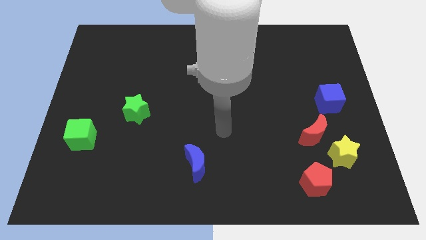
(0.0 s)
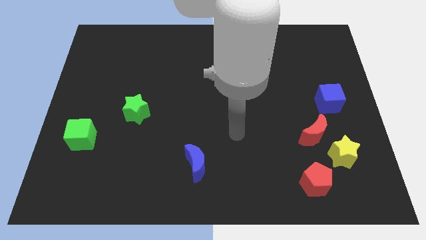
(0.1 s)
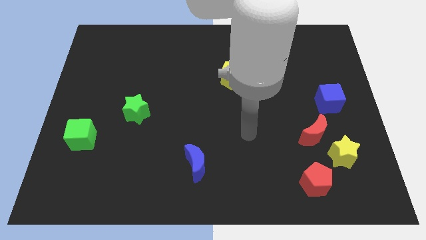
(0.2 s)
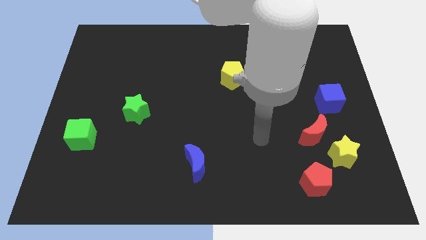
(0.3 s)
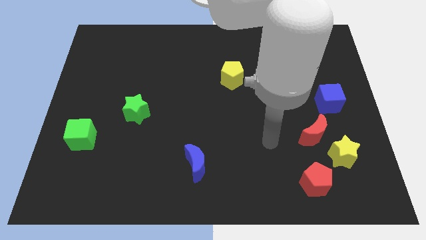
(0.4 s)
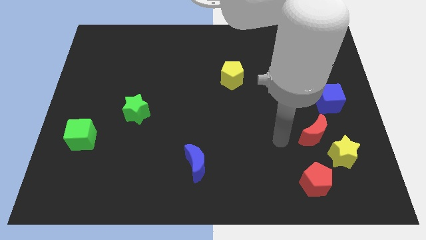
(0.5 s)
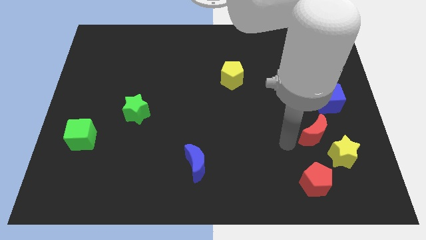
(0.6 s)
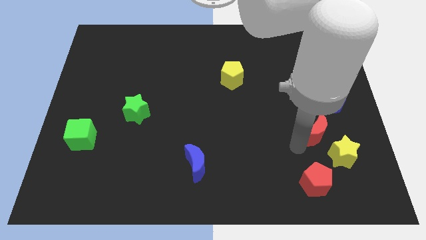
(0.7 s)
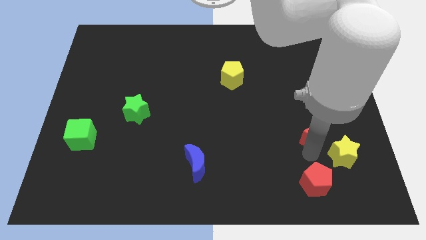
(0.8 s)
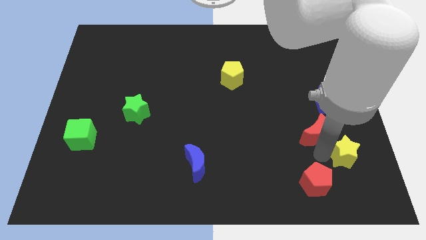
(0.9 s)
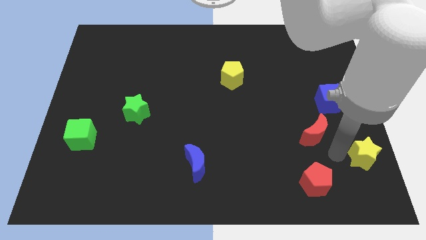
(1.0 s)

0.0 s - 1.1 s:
separate the red moon from the yellow star

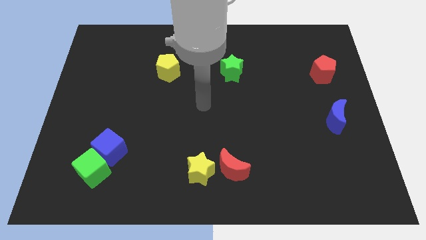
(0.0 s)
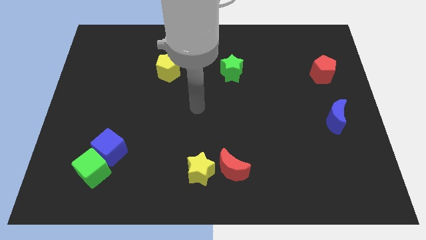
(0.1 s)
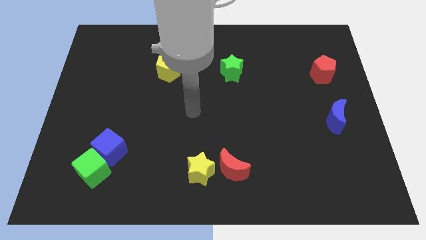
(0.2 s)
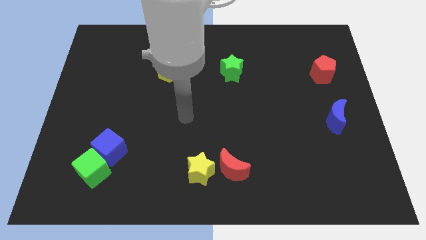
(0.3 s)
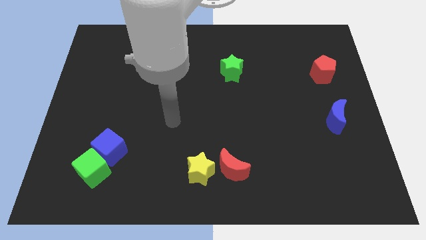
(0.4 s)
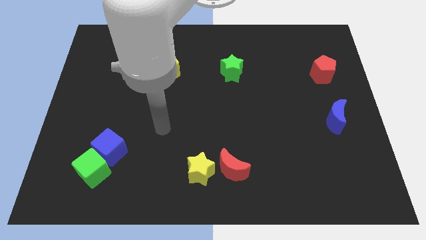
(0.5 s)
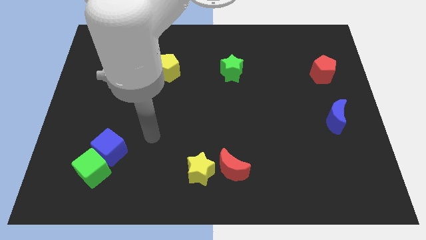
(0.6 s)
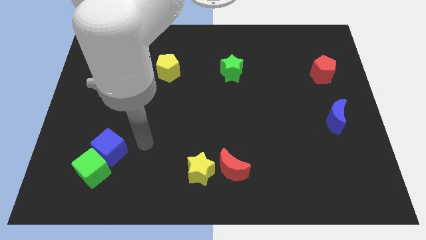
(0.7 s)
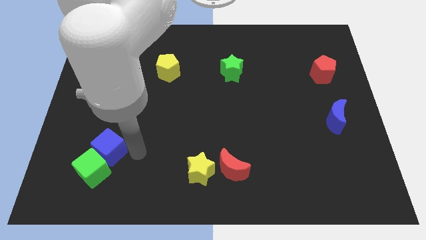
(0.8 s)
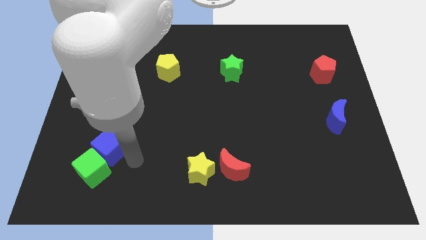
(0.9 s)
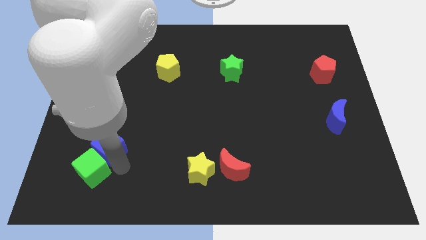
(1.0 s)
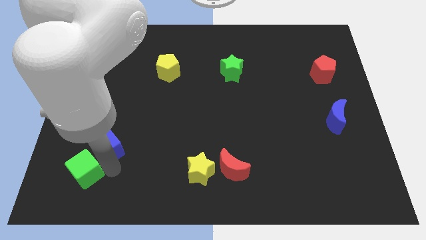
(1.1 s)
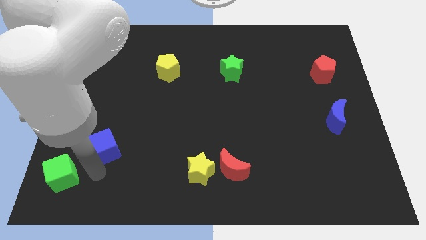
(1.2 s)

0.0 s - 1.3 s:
pull the blue cube apart from the green cube

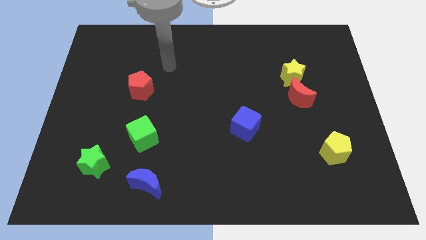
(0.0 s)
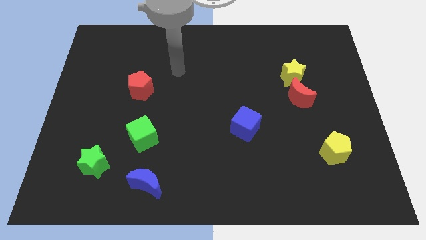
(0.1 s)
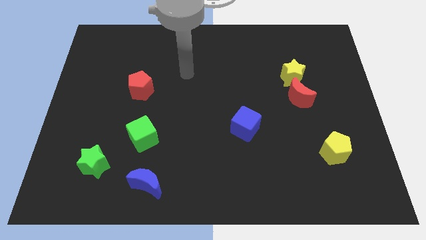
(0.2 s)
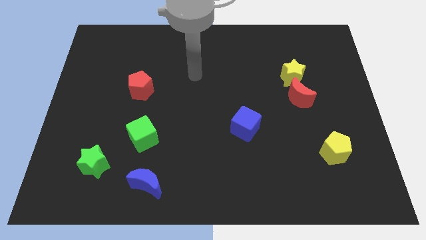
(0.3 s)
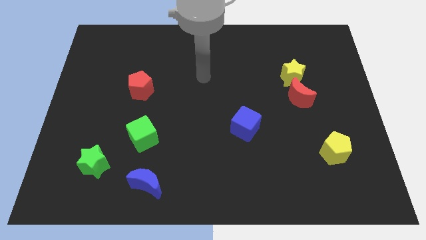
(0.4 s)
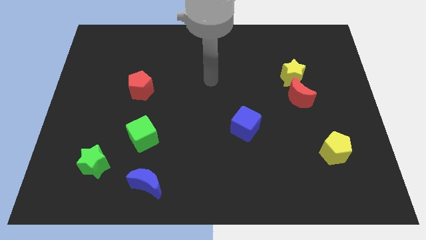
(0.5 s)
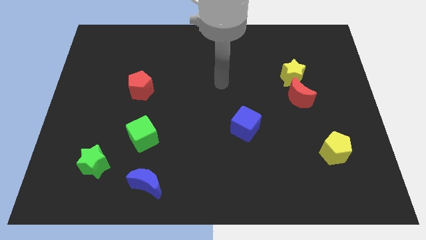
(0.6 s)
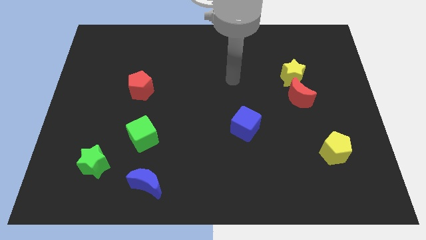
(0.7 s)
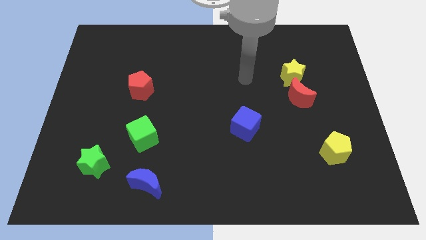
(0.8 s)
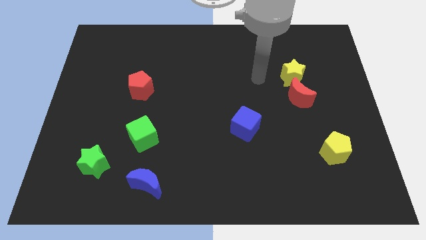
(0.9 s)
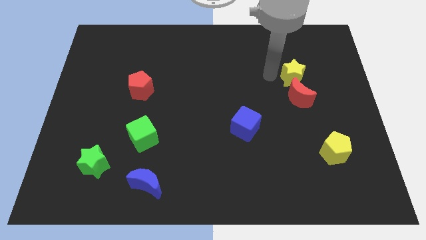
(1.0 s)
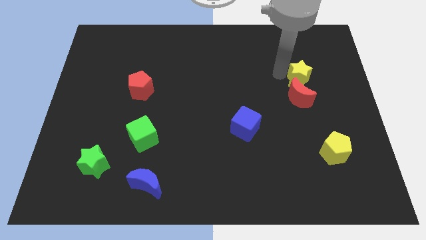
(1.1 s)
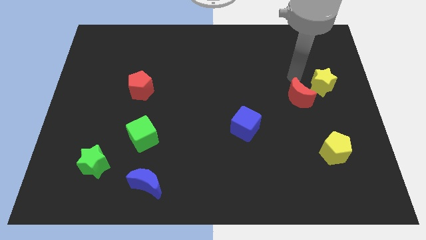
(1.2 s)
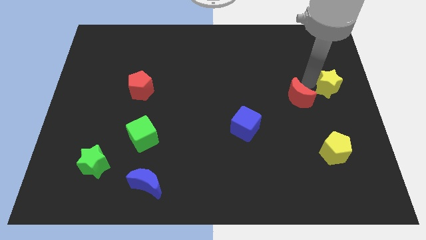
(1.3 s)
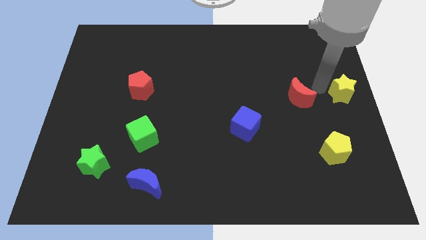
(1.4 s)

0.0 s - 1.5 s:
pull the red moon apart from the yellow star

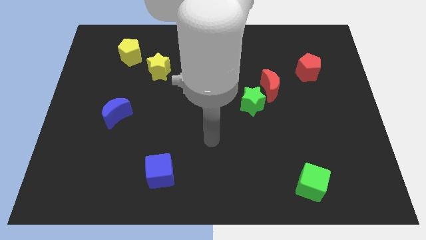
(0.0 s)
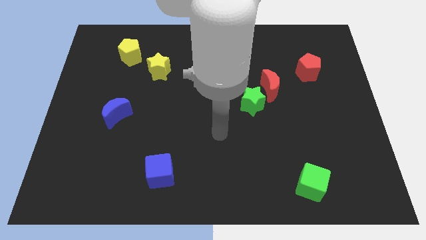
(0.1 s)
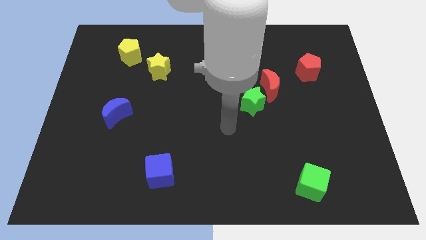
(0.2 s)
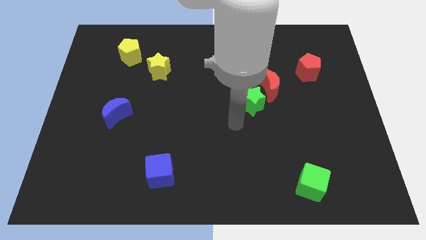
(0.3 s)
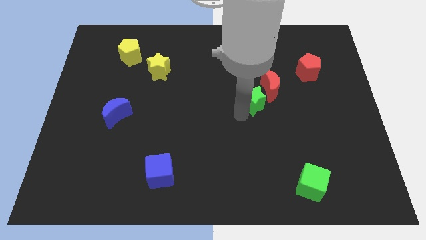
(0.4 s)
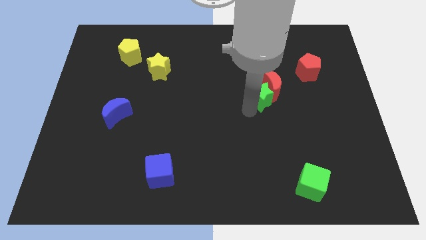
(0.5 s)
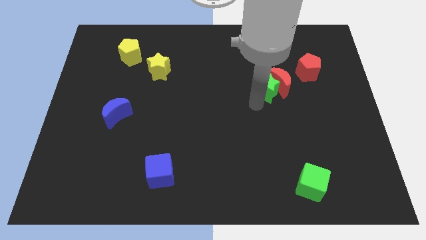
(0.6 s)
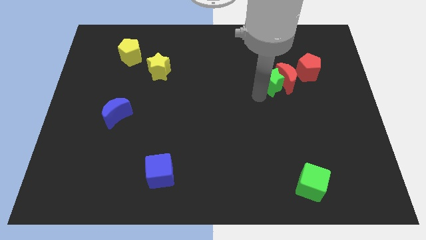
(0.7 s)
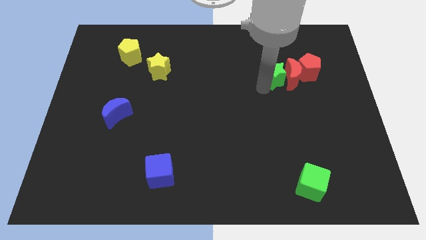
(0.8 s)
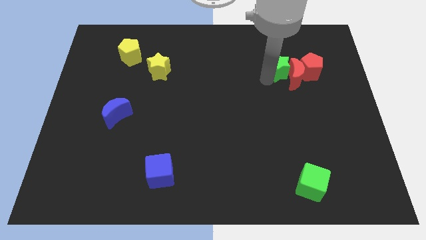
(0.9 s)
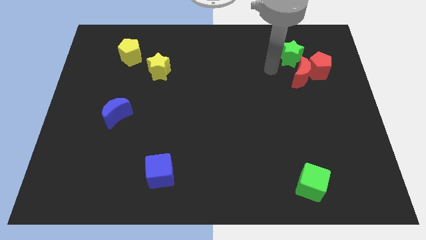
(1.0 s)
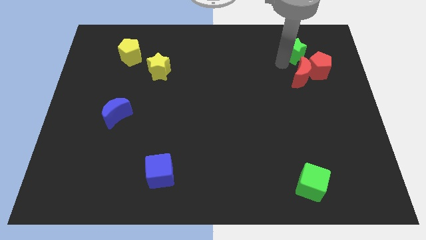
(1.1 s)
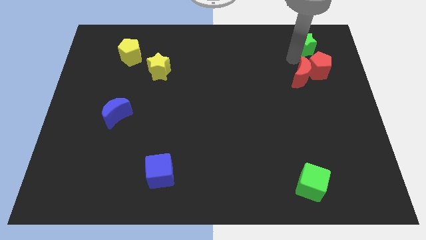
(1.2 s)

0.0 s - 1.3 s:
pull the red moon apart from the green star

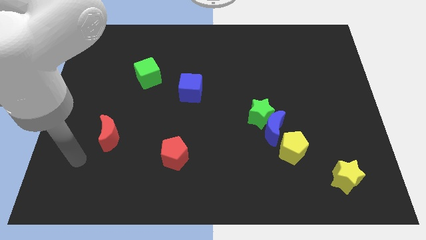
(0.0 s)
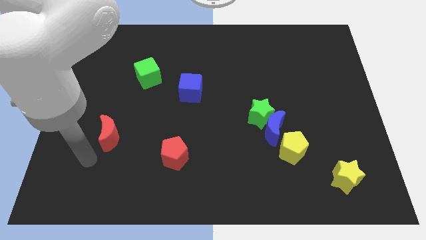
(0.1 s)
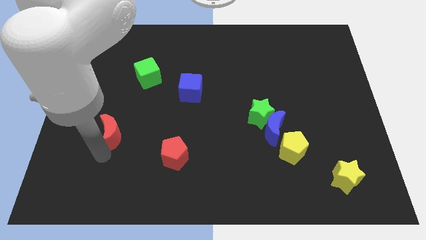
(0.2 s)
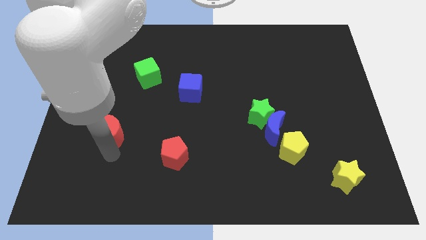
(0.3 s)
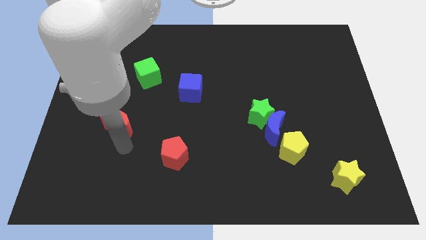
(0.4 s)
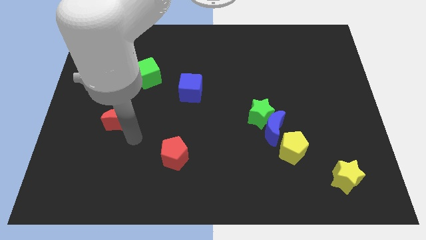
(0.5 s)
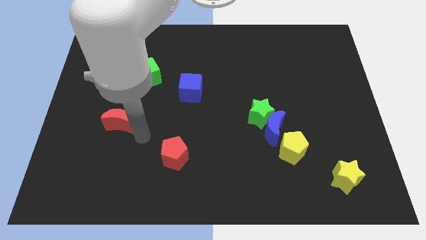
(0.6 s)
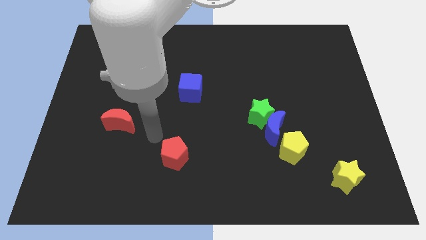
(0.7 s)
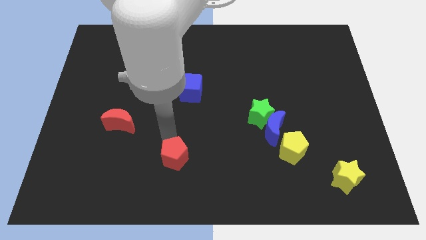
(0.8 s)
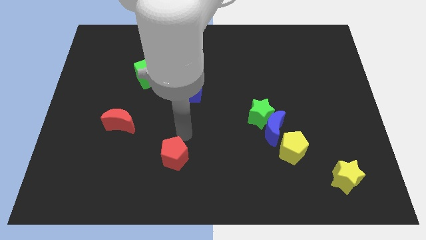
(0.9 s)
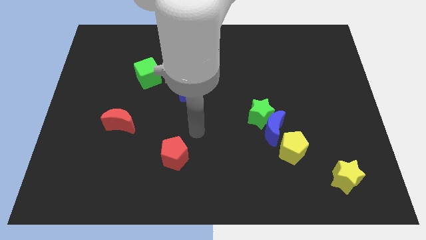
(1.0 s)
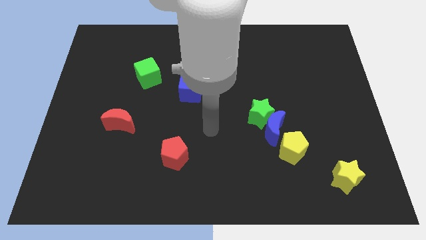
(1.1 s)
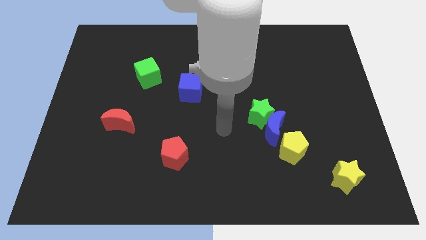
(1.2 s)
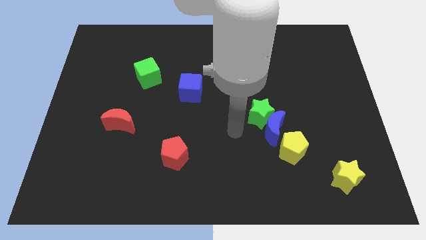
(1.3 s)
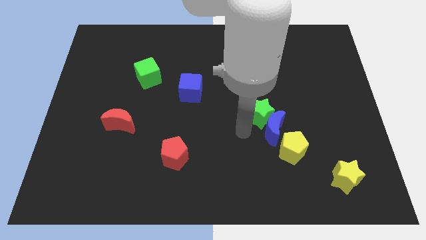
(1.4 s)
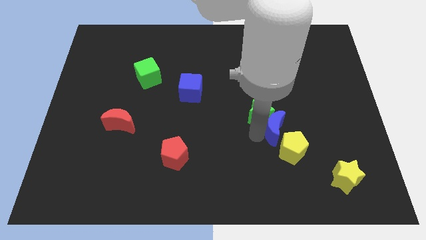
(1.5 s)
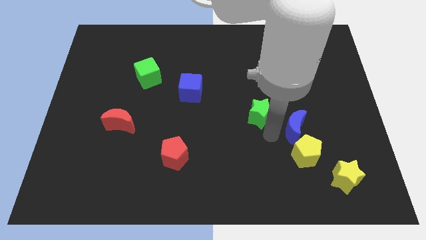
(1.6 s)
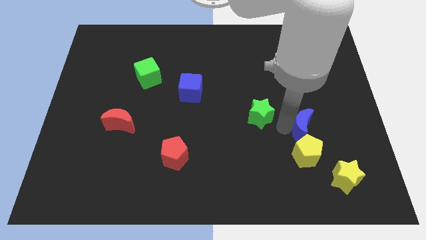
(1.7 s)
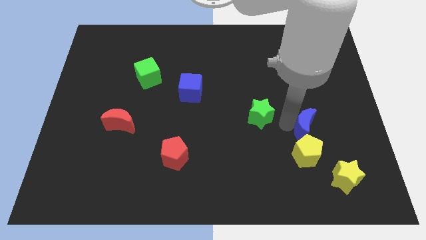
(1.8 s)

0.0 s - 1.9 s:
move the green star away from the blue moon

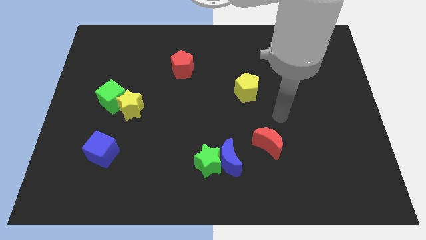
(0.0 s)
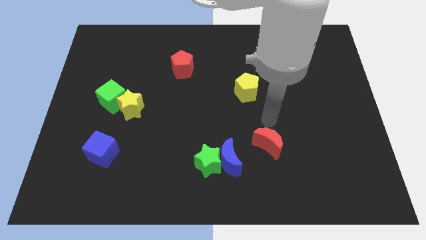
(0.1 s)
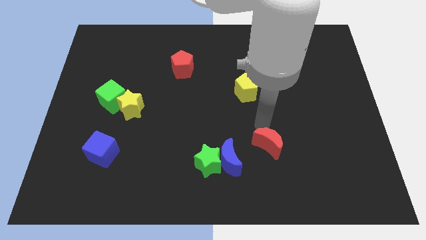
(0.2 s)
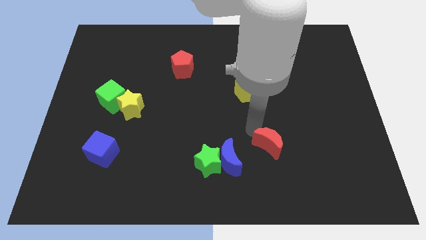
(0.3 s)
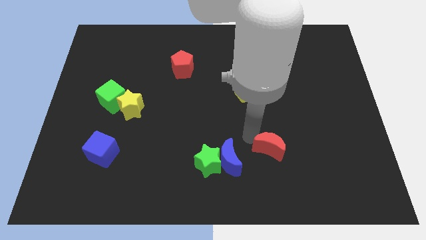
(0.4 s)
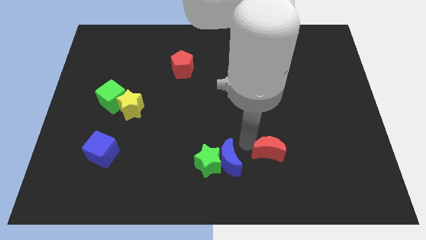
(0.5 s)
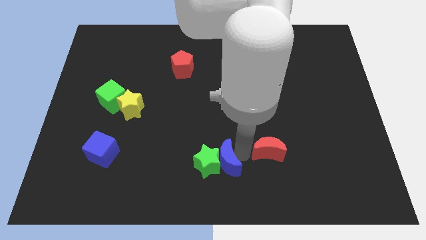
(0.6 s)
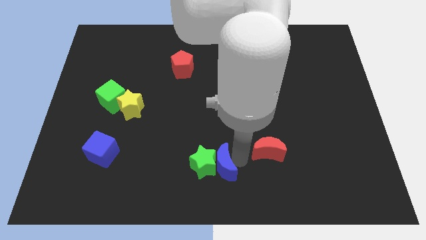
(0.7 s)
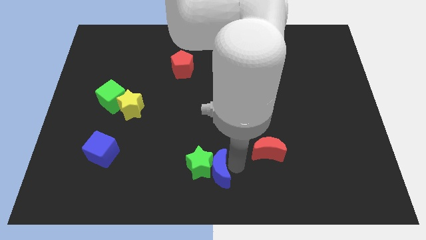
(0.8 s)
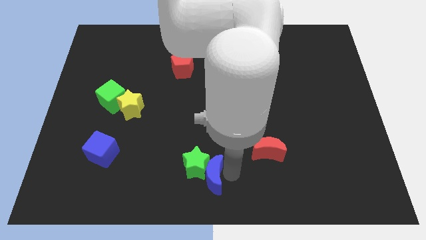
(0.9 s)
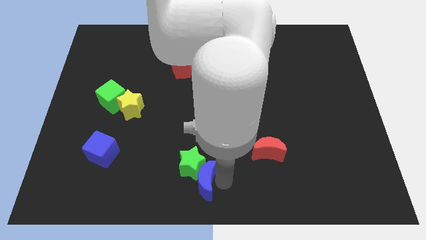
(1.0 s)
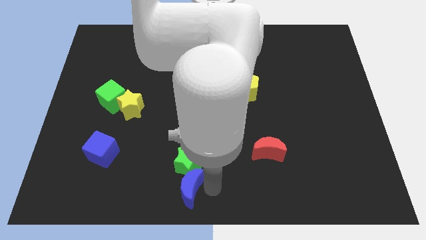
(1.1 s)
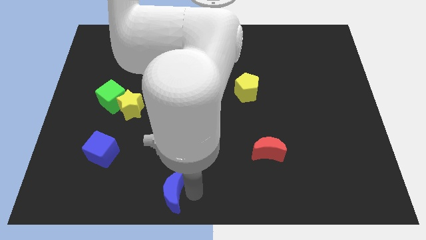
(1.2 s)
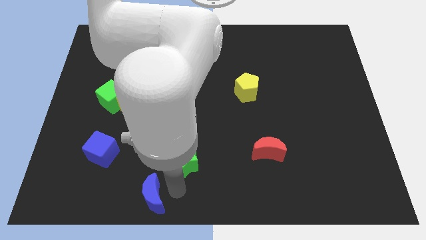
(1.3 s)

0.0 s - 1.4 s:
separate the green star from the blue moon

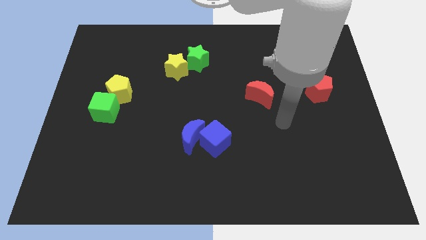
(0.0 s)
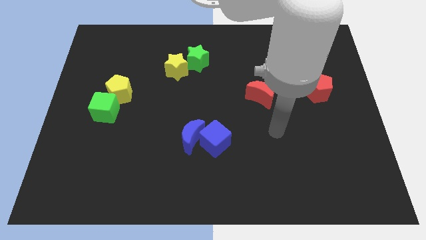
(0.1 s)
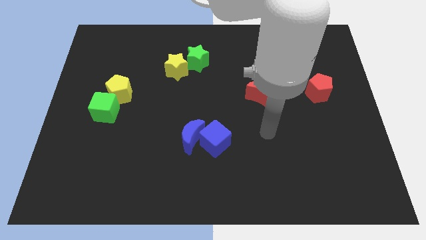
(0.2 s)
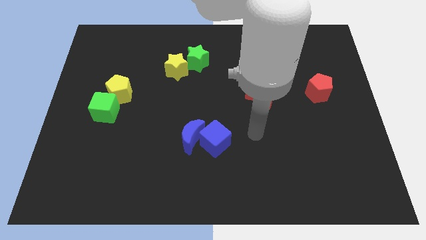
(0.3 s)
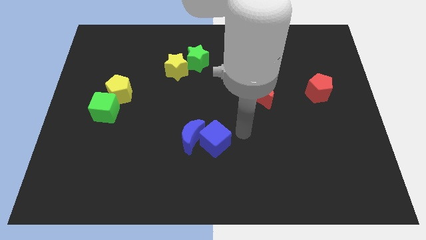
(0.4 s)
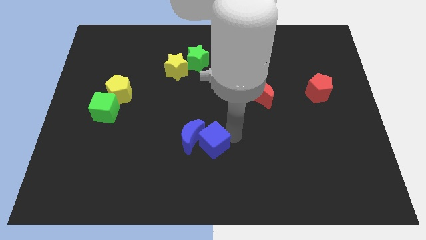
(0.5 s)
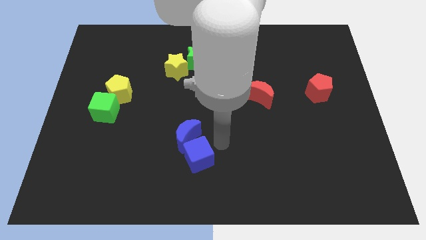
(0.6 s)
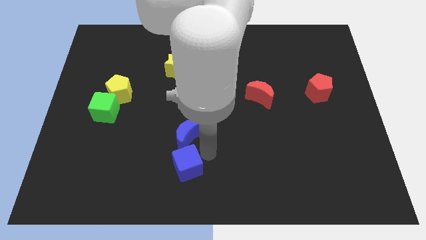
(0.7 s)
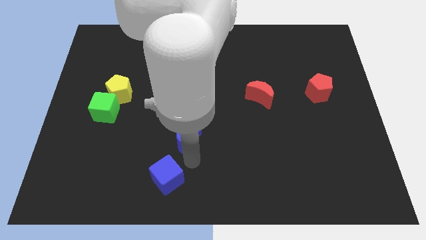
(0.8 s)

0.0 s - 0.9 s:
pull the blue moon apart from the blue cube
